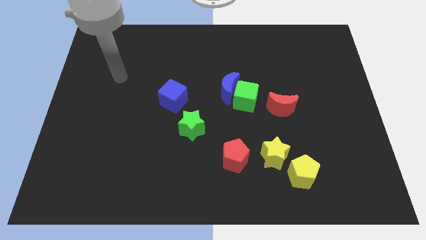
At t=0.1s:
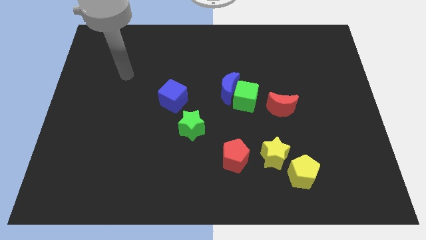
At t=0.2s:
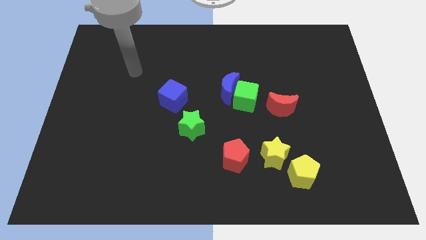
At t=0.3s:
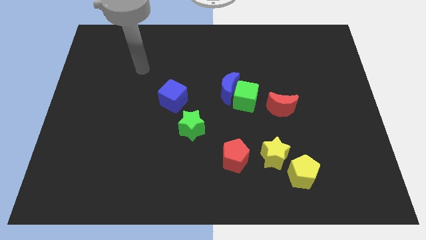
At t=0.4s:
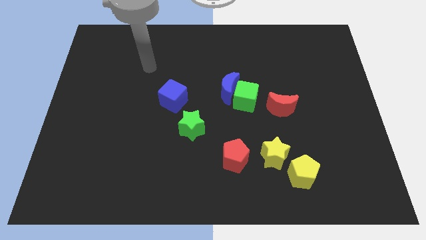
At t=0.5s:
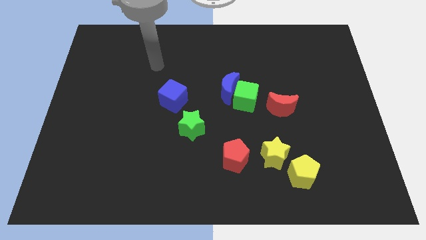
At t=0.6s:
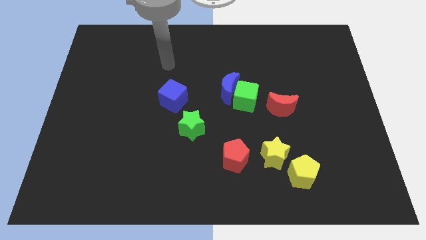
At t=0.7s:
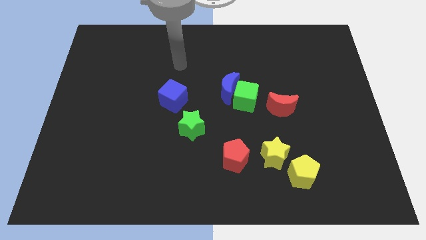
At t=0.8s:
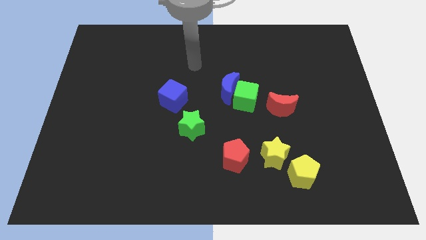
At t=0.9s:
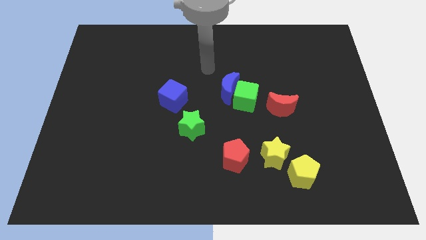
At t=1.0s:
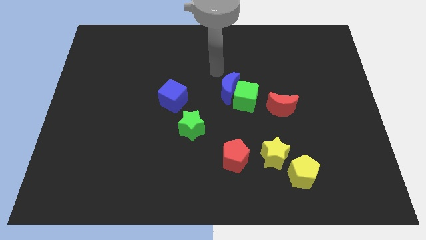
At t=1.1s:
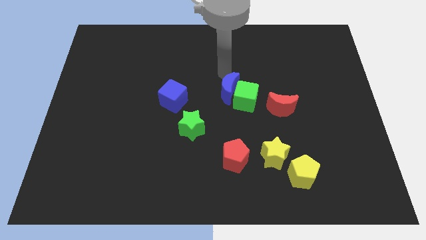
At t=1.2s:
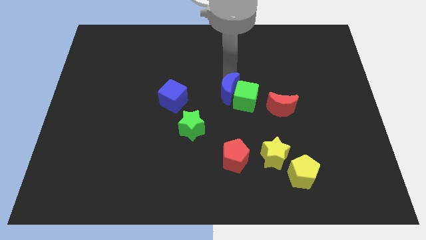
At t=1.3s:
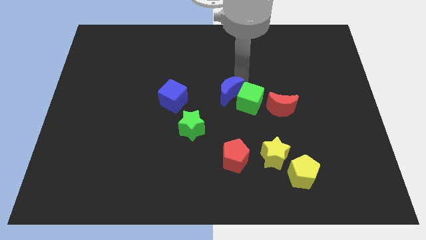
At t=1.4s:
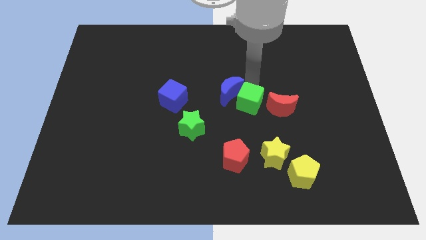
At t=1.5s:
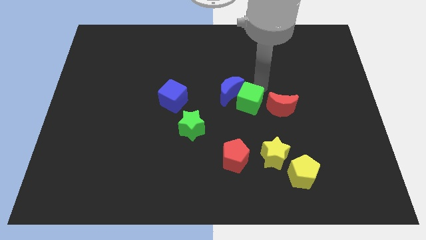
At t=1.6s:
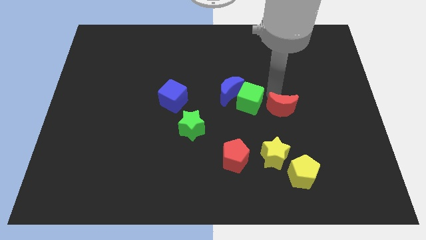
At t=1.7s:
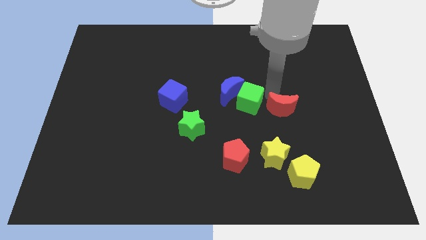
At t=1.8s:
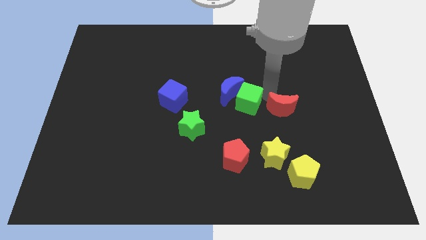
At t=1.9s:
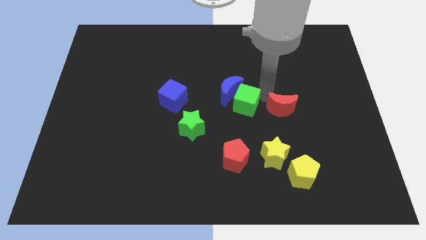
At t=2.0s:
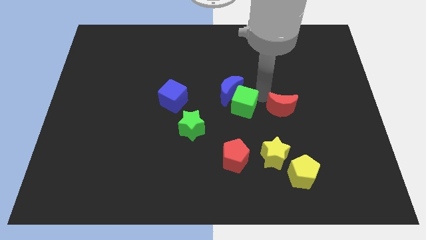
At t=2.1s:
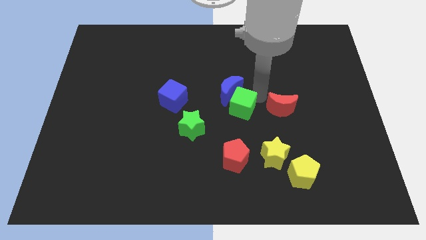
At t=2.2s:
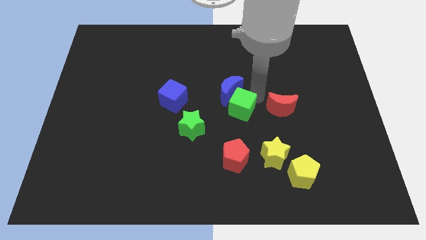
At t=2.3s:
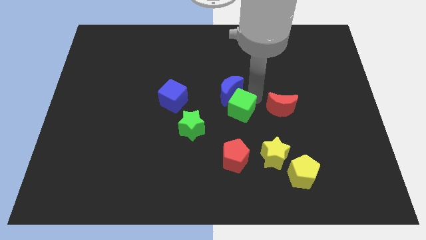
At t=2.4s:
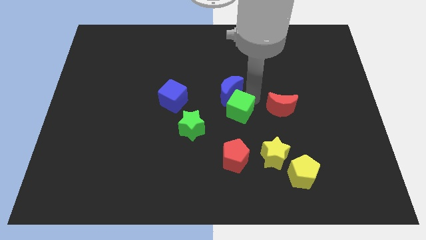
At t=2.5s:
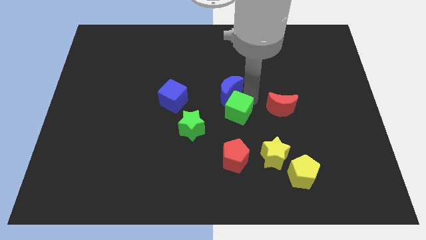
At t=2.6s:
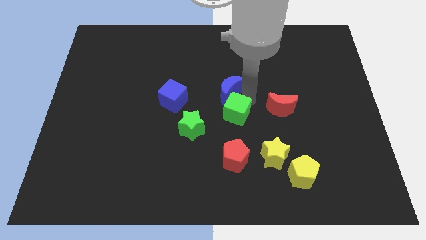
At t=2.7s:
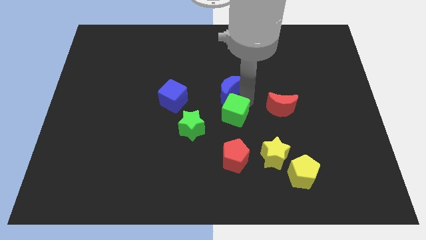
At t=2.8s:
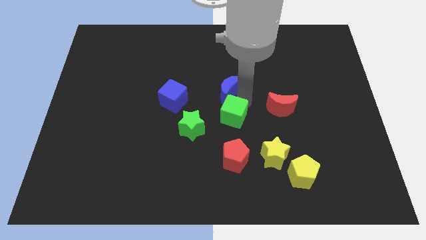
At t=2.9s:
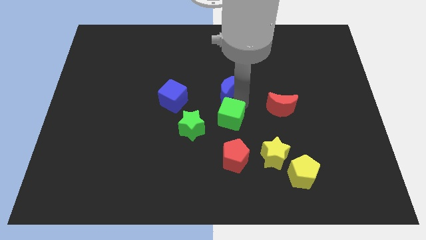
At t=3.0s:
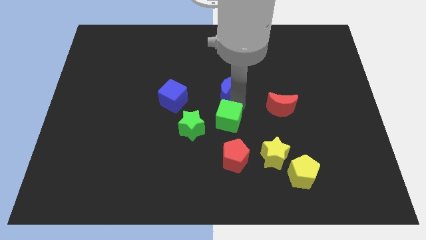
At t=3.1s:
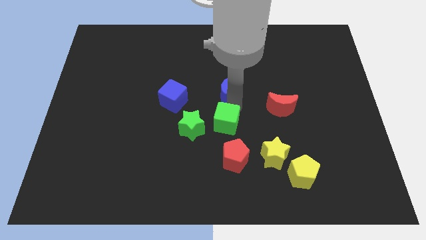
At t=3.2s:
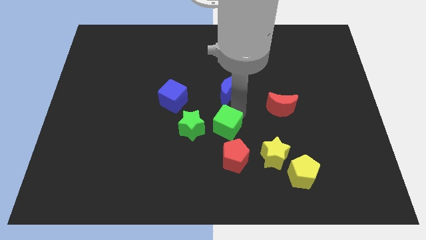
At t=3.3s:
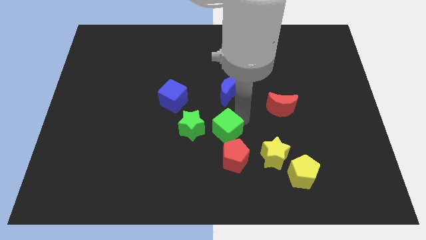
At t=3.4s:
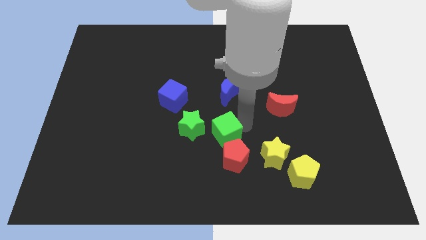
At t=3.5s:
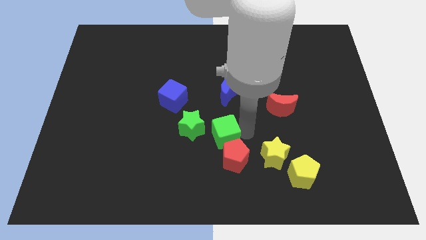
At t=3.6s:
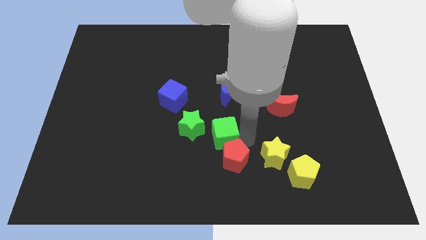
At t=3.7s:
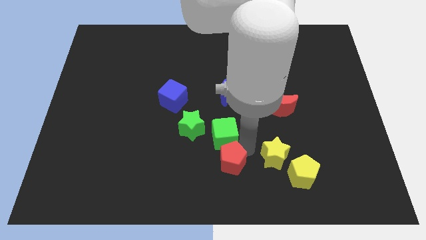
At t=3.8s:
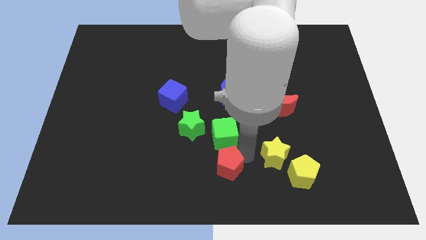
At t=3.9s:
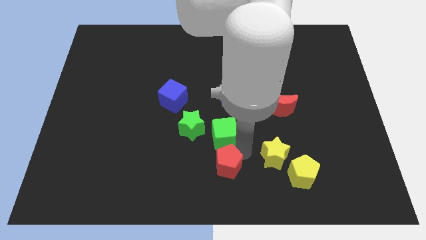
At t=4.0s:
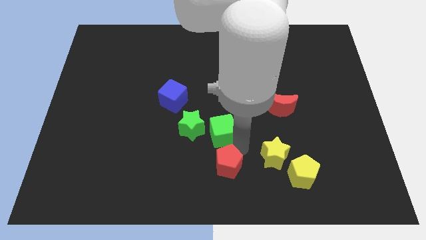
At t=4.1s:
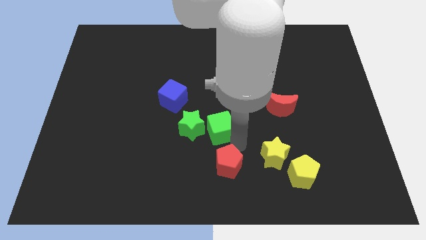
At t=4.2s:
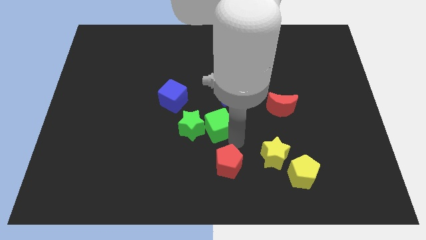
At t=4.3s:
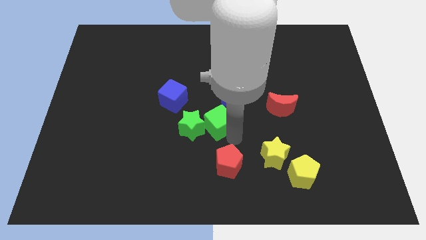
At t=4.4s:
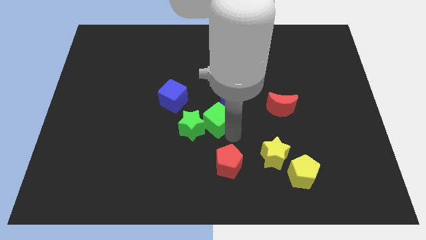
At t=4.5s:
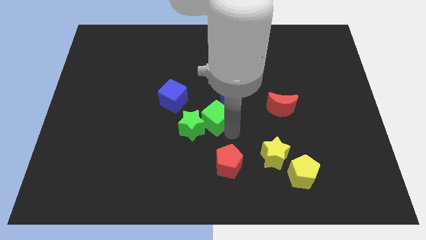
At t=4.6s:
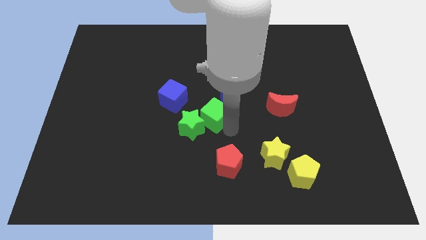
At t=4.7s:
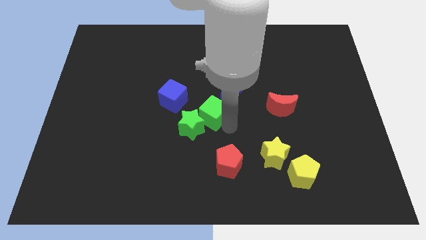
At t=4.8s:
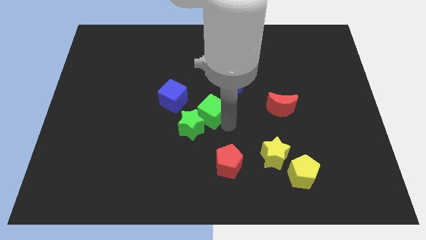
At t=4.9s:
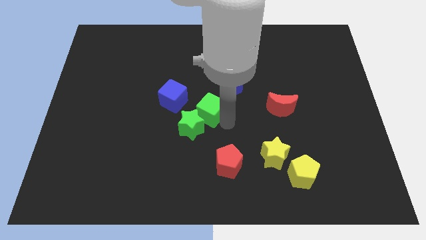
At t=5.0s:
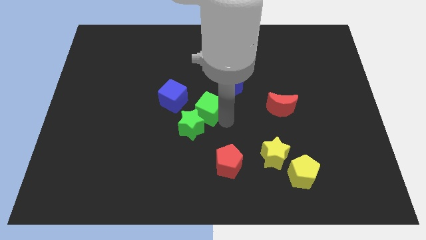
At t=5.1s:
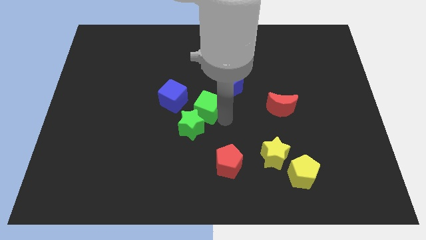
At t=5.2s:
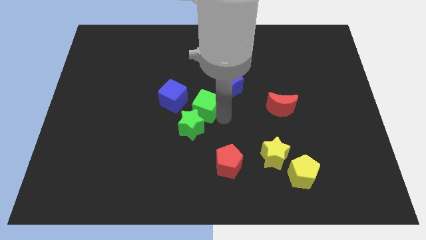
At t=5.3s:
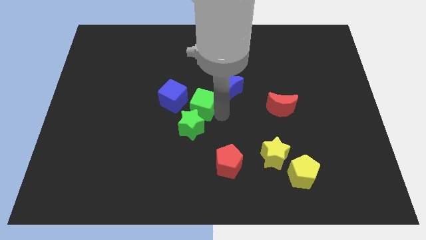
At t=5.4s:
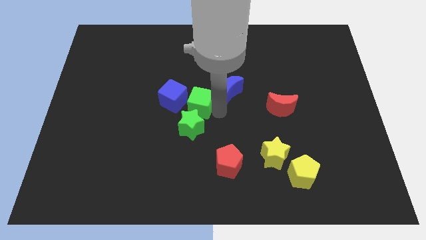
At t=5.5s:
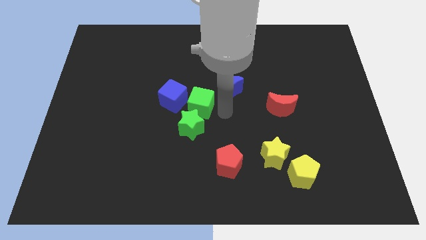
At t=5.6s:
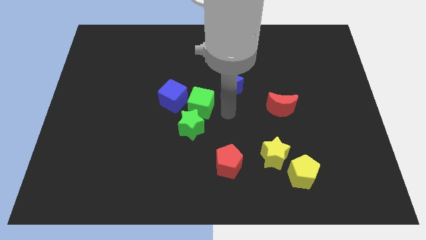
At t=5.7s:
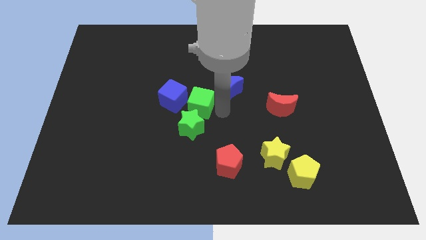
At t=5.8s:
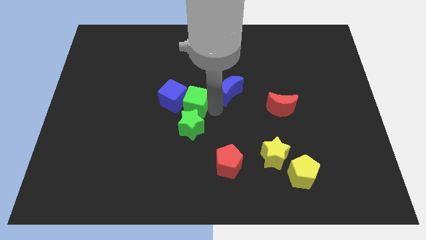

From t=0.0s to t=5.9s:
slide the green cube towards the blue cube

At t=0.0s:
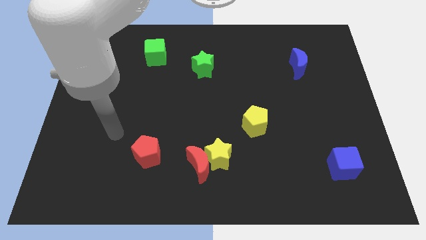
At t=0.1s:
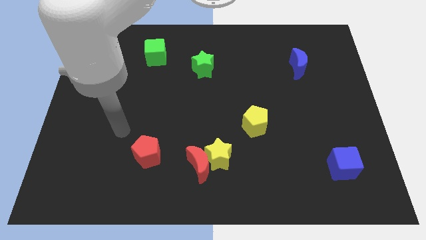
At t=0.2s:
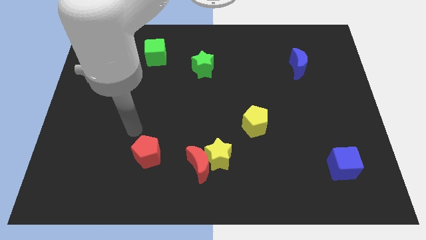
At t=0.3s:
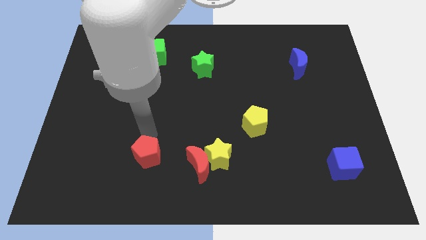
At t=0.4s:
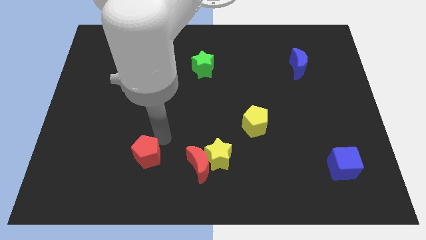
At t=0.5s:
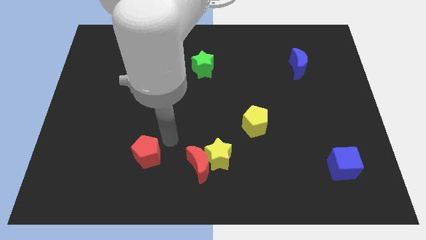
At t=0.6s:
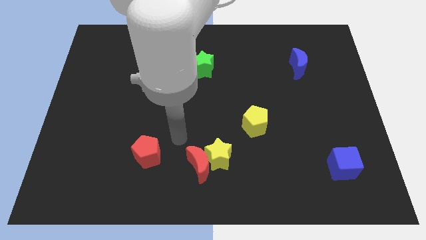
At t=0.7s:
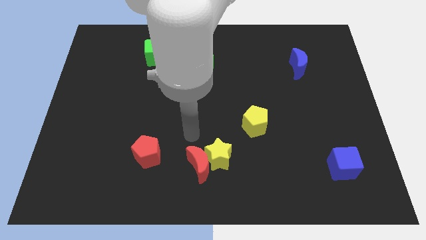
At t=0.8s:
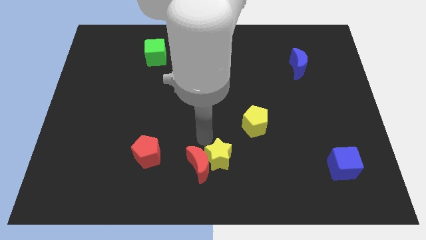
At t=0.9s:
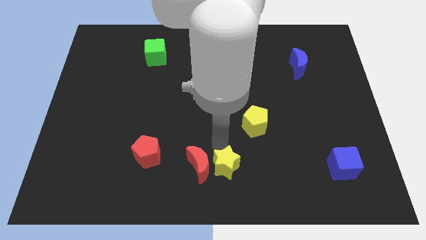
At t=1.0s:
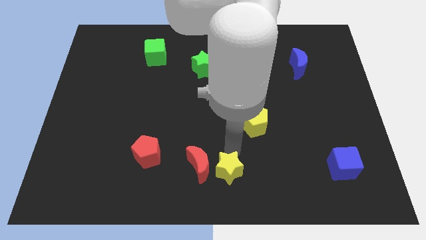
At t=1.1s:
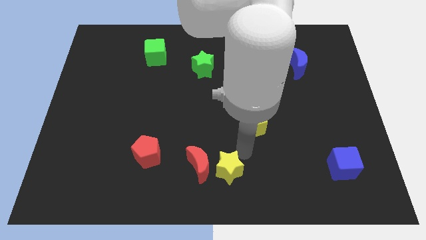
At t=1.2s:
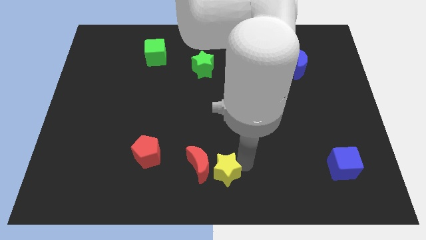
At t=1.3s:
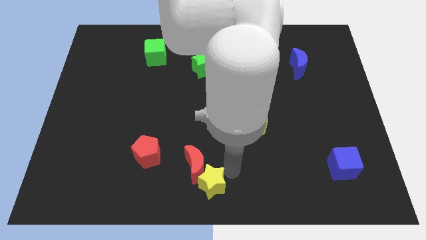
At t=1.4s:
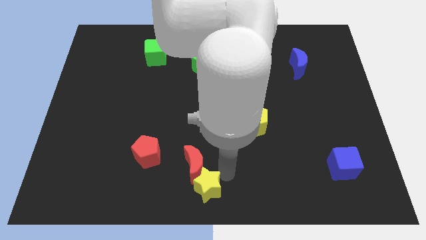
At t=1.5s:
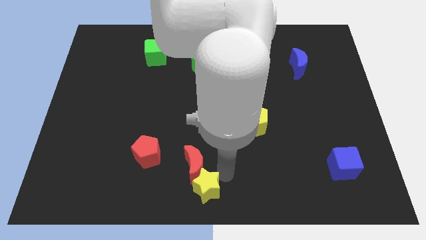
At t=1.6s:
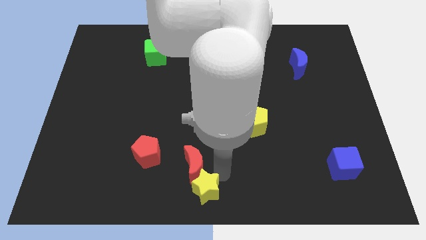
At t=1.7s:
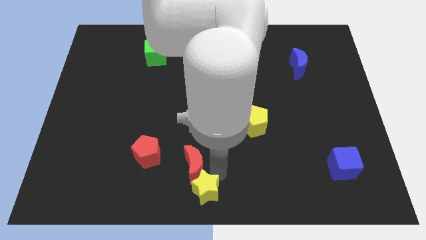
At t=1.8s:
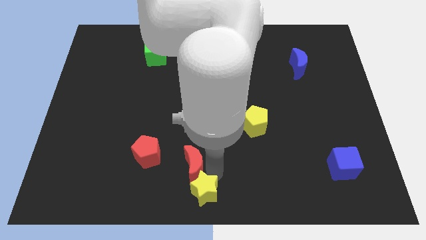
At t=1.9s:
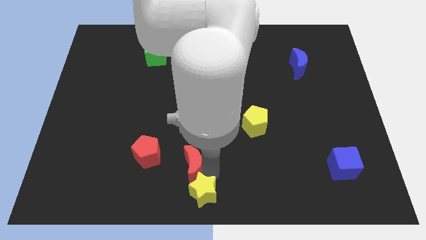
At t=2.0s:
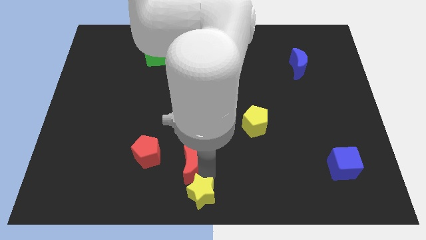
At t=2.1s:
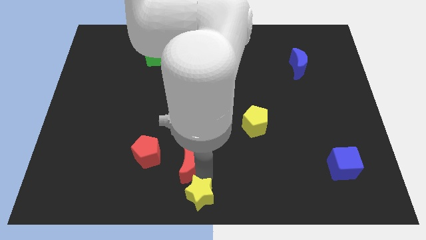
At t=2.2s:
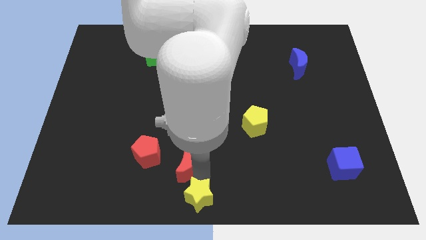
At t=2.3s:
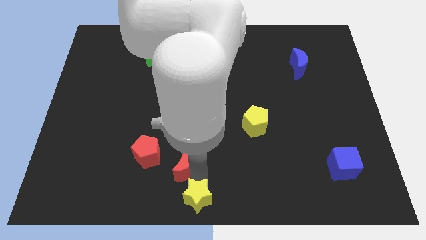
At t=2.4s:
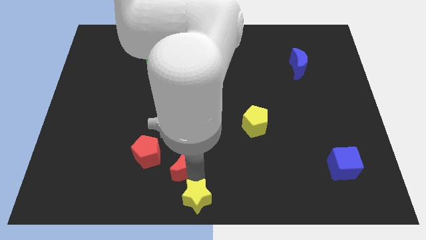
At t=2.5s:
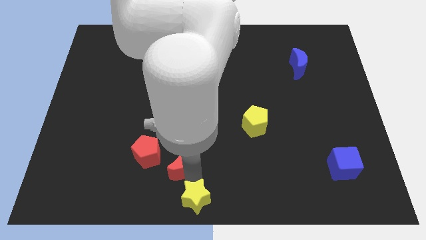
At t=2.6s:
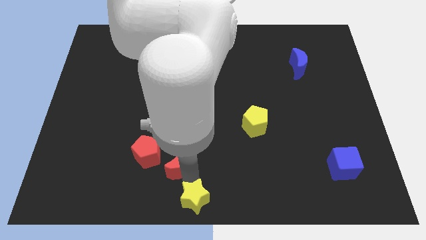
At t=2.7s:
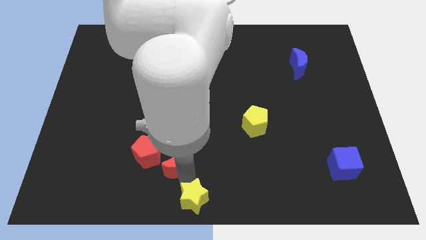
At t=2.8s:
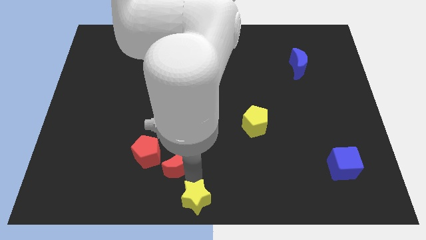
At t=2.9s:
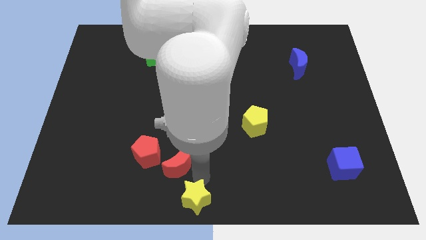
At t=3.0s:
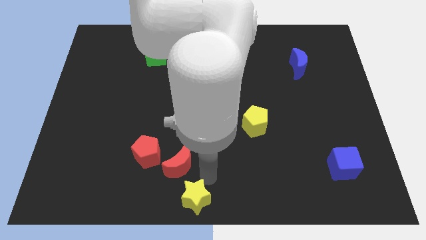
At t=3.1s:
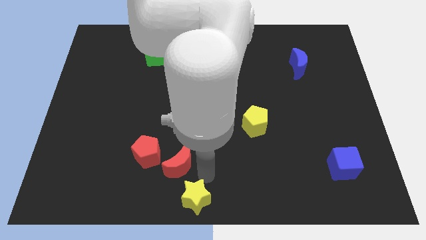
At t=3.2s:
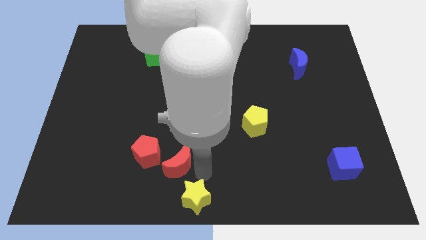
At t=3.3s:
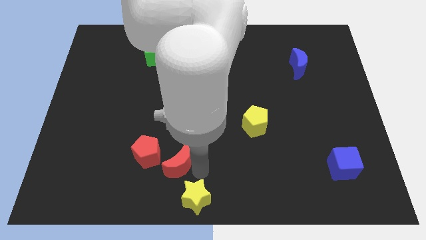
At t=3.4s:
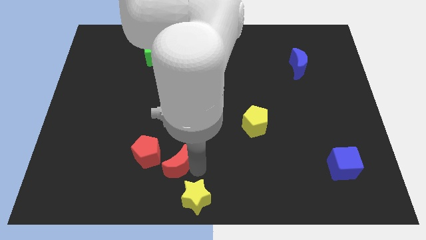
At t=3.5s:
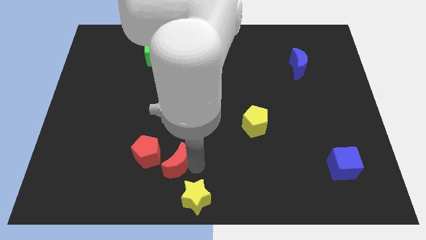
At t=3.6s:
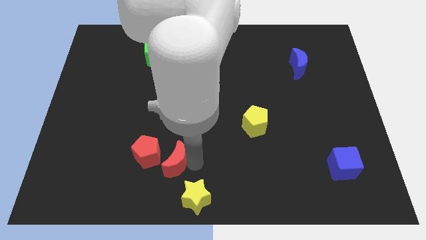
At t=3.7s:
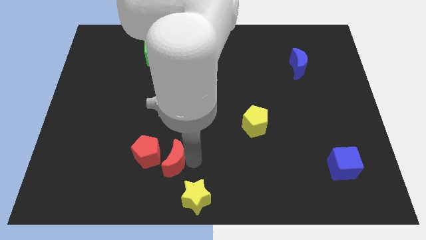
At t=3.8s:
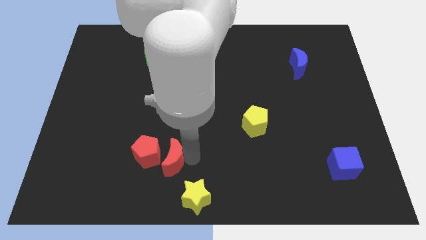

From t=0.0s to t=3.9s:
slide the red moon close to the red pentagon
